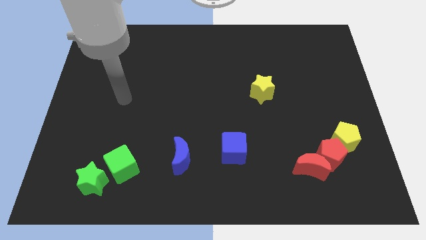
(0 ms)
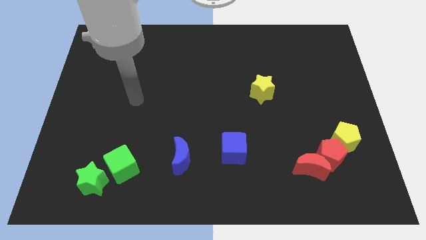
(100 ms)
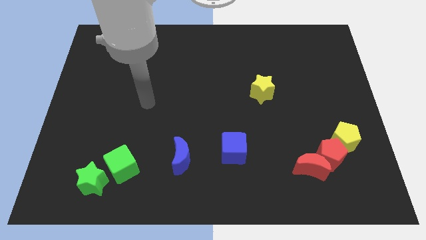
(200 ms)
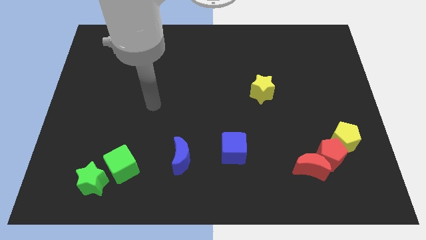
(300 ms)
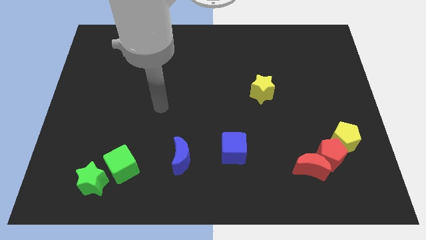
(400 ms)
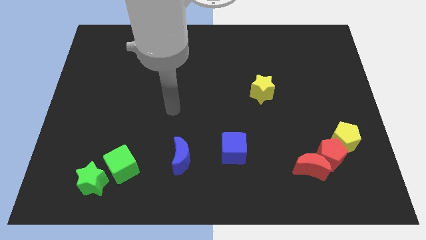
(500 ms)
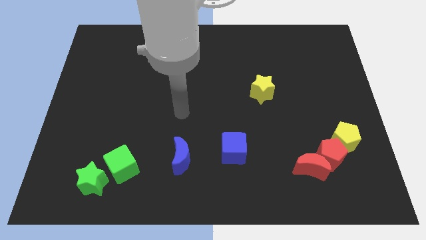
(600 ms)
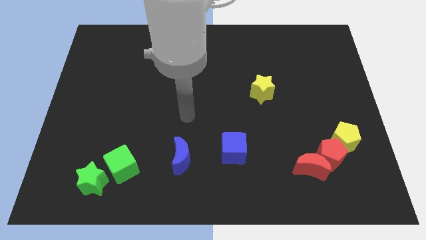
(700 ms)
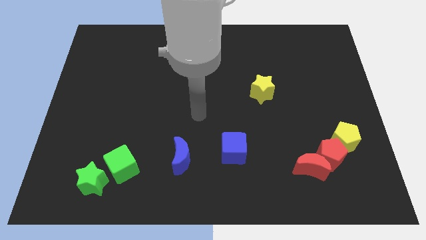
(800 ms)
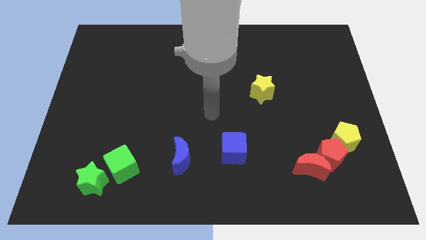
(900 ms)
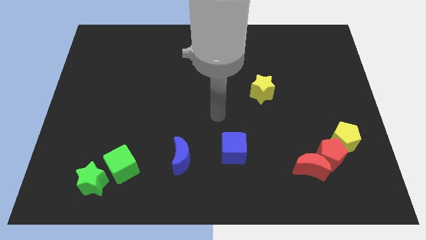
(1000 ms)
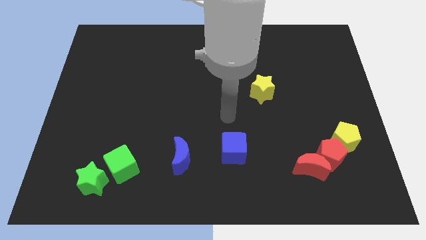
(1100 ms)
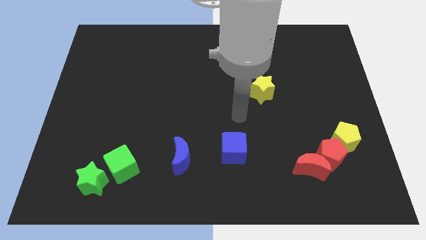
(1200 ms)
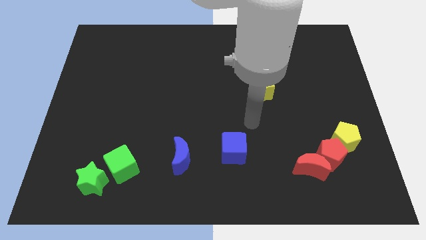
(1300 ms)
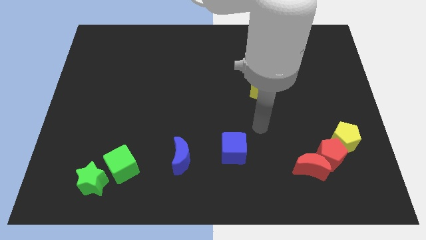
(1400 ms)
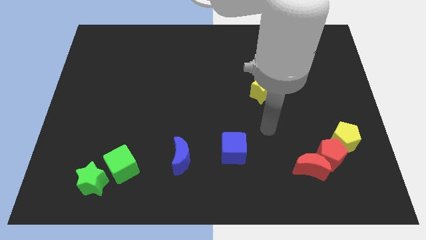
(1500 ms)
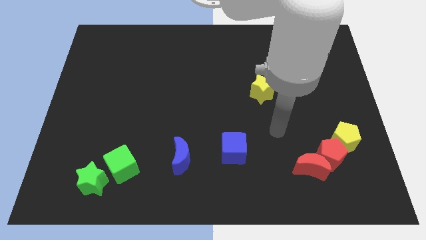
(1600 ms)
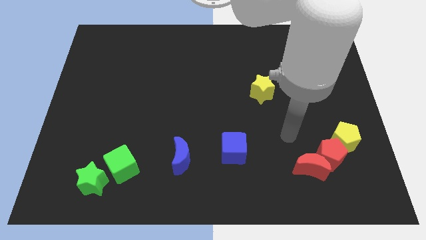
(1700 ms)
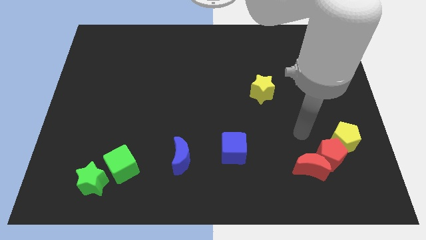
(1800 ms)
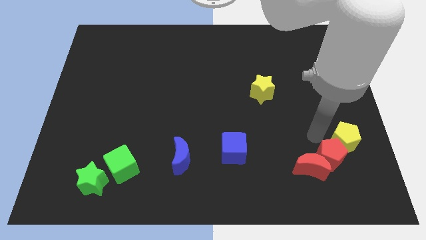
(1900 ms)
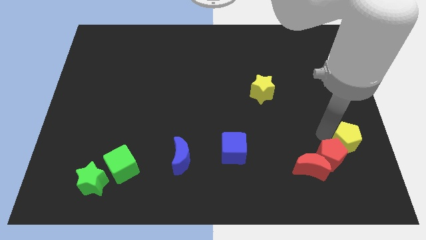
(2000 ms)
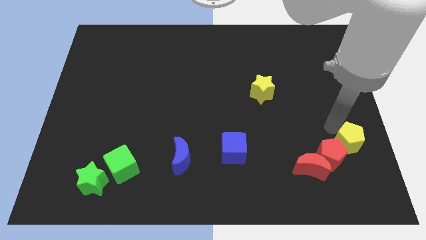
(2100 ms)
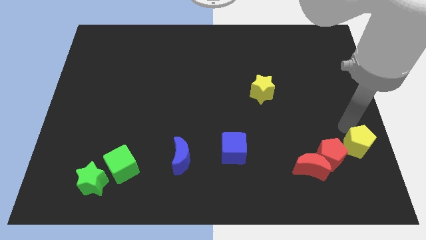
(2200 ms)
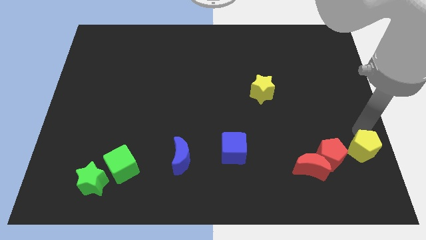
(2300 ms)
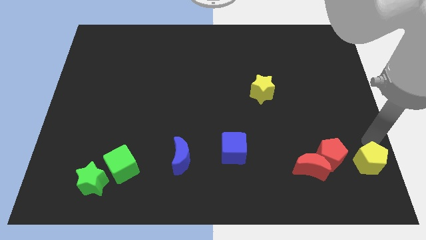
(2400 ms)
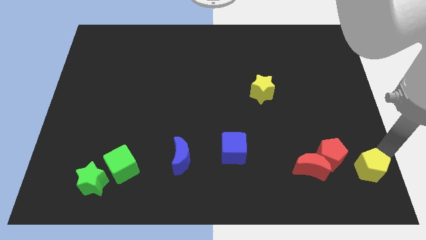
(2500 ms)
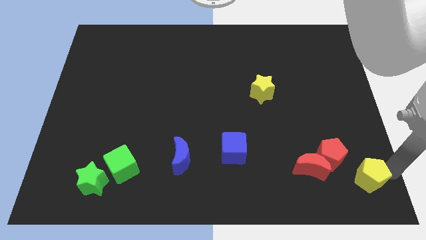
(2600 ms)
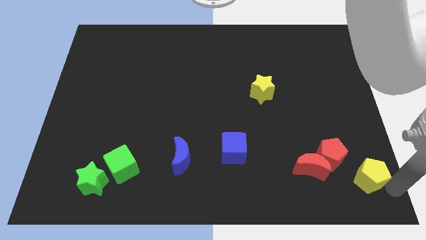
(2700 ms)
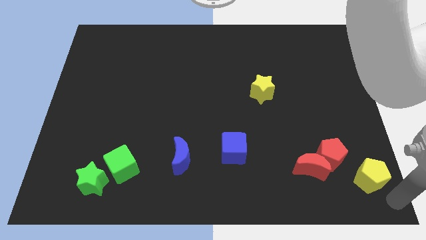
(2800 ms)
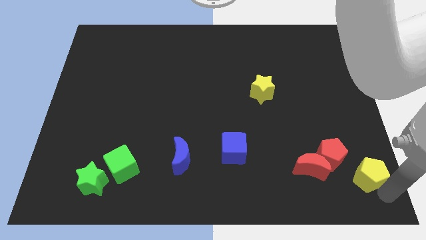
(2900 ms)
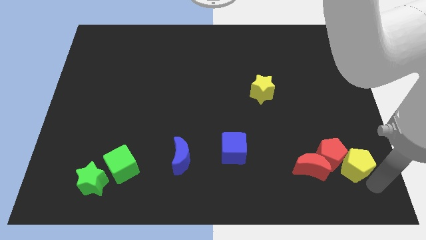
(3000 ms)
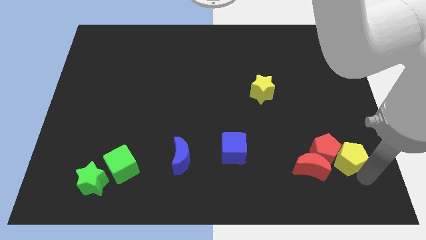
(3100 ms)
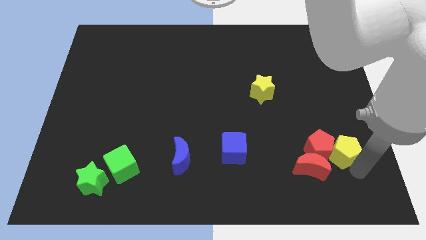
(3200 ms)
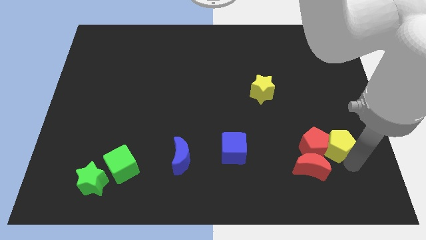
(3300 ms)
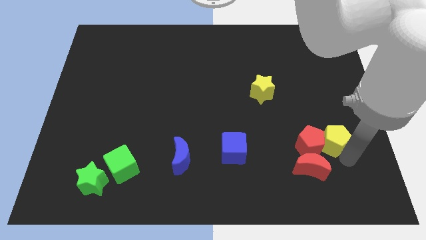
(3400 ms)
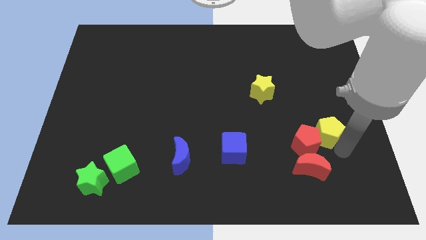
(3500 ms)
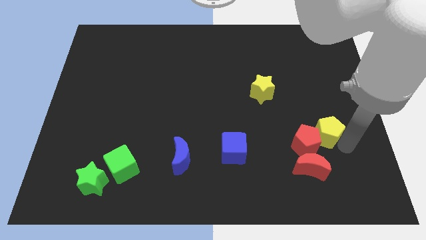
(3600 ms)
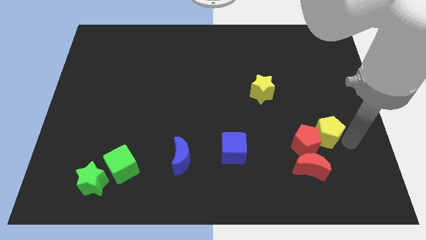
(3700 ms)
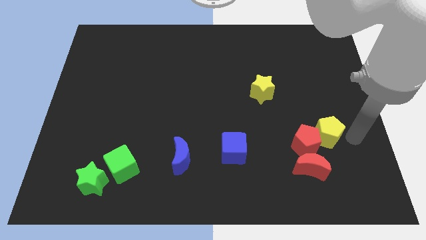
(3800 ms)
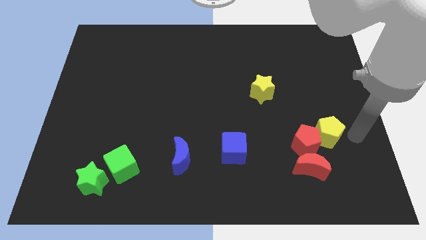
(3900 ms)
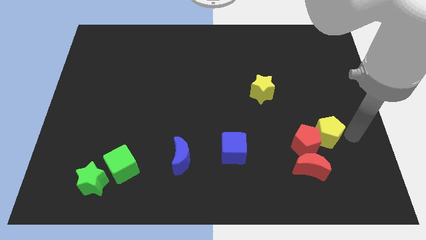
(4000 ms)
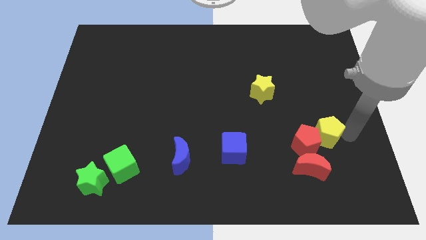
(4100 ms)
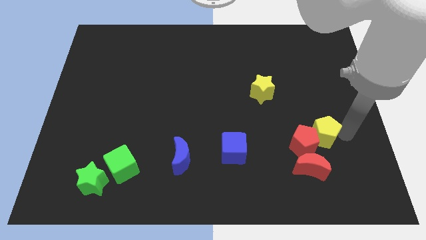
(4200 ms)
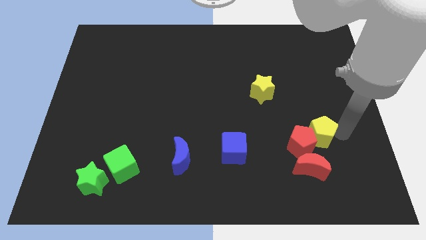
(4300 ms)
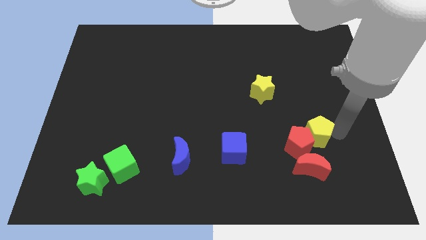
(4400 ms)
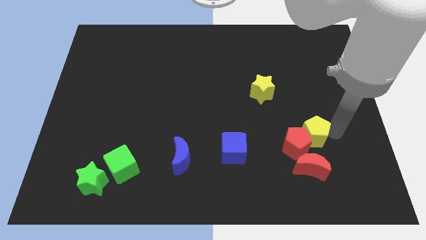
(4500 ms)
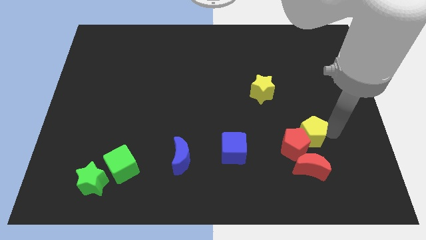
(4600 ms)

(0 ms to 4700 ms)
slide the yellow pentagon a little left

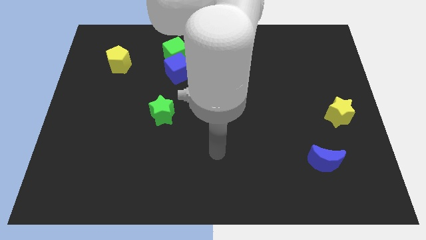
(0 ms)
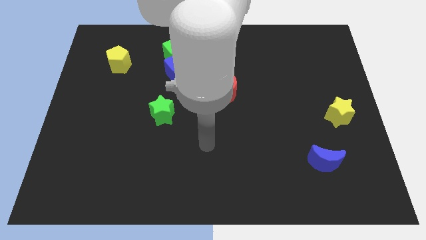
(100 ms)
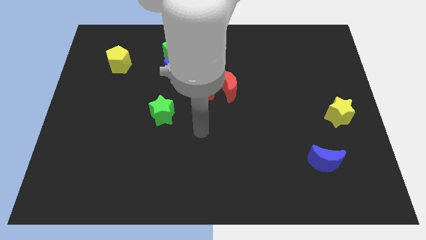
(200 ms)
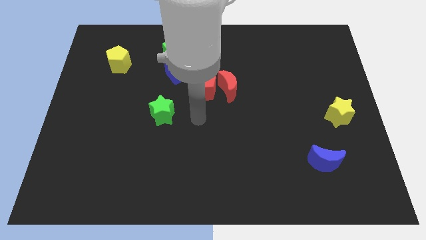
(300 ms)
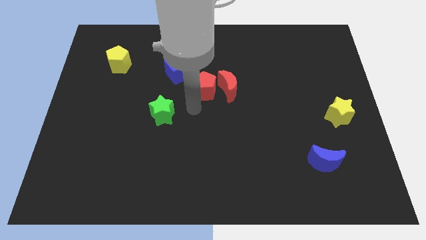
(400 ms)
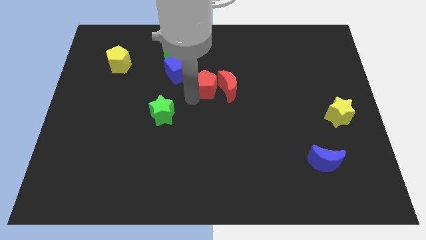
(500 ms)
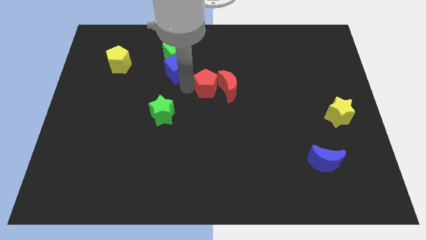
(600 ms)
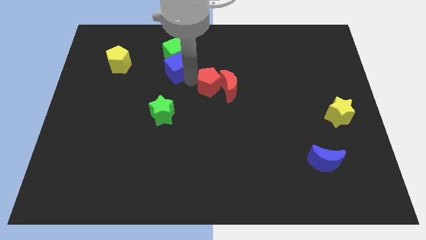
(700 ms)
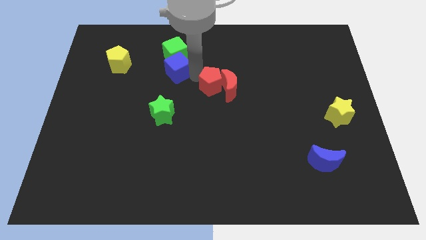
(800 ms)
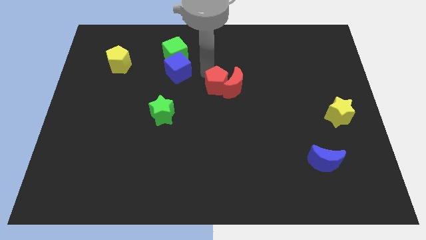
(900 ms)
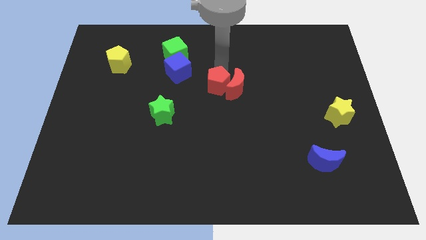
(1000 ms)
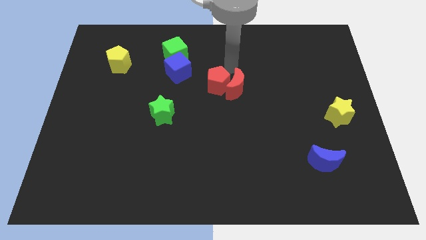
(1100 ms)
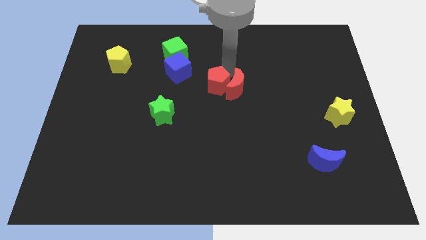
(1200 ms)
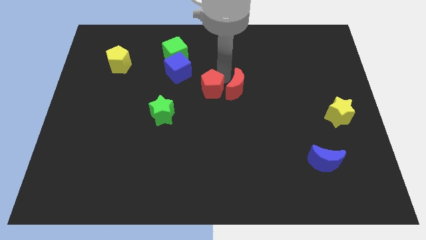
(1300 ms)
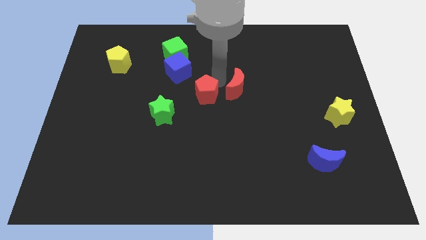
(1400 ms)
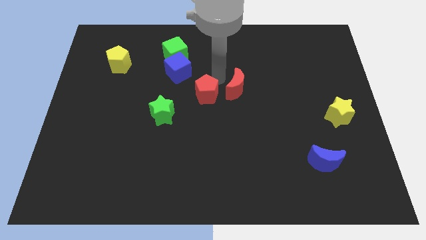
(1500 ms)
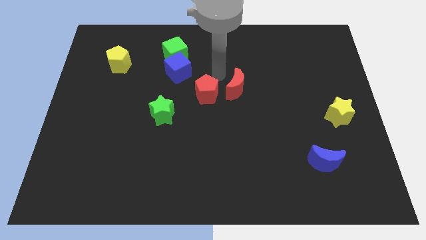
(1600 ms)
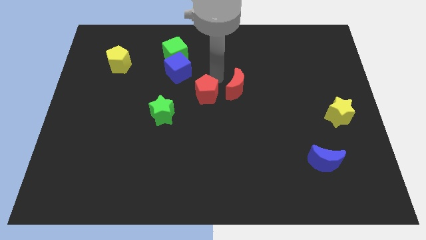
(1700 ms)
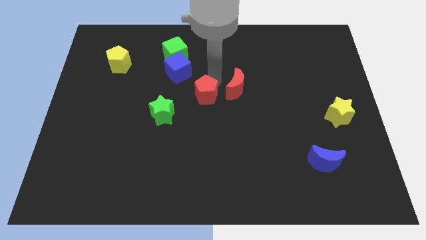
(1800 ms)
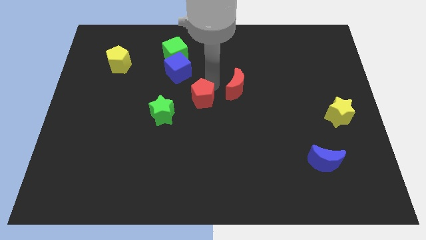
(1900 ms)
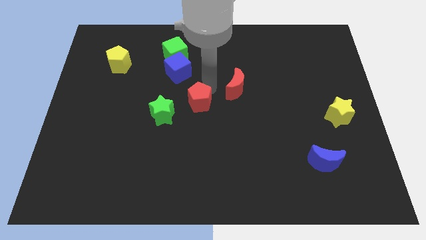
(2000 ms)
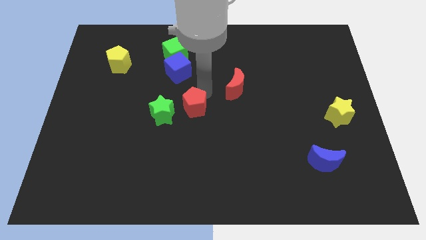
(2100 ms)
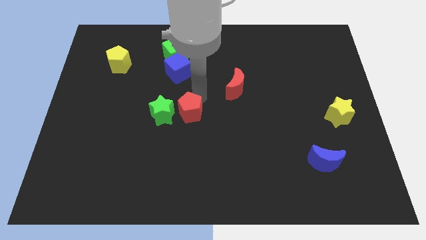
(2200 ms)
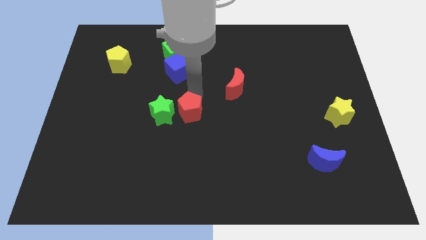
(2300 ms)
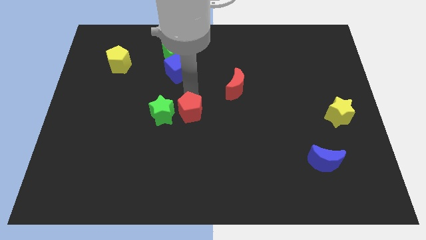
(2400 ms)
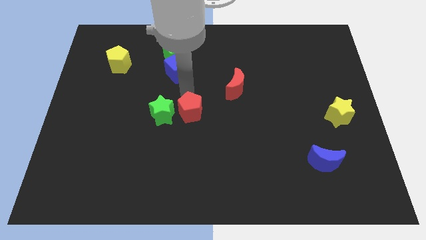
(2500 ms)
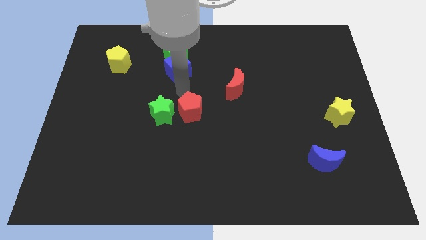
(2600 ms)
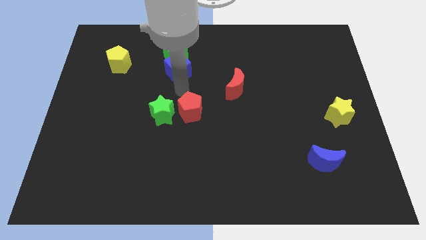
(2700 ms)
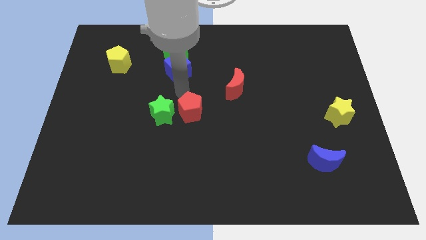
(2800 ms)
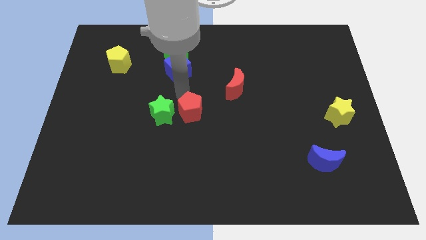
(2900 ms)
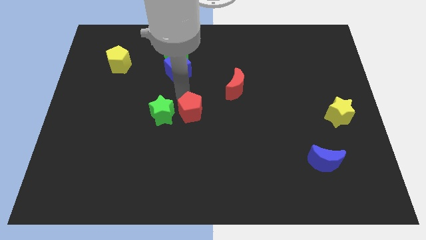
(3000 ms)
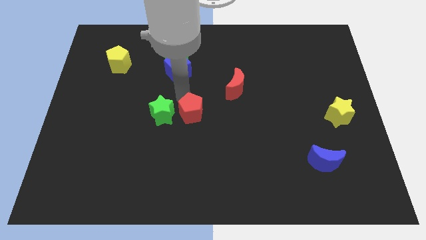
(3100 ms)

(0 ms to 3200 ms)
move the red pentagon a little bit downwards

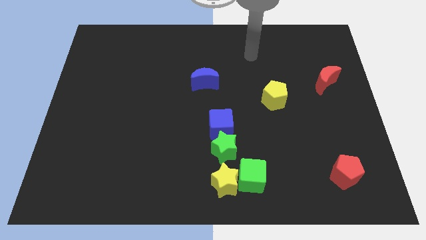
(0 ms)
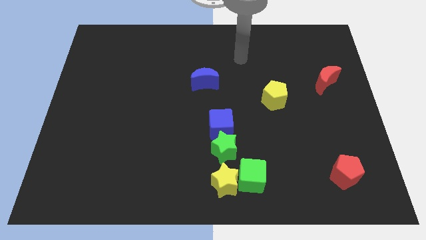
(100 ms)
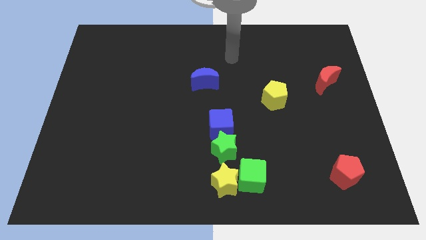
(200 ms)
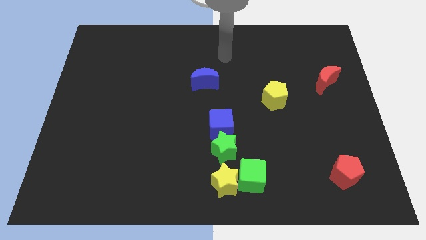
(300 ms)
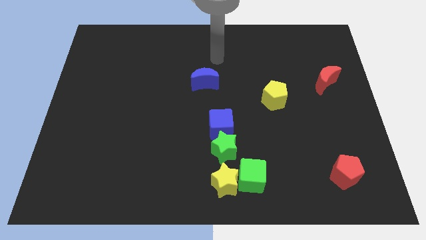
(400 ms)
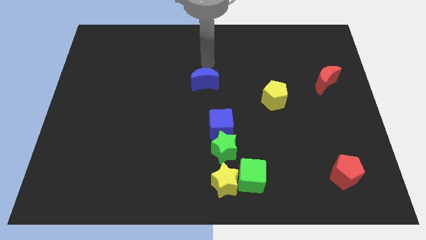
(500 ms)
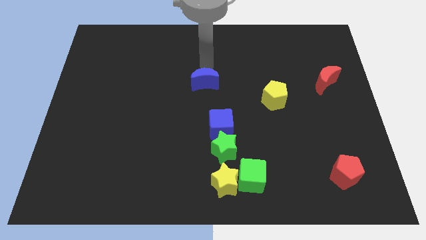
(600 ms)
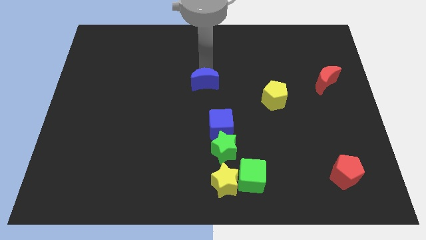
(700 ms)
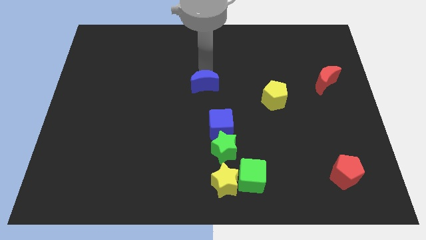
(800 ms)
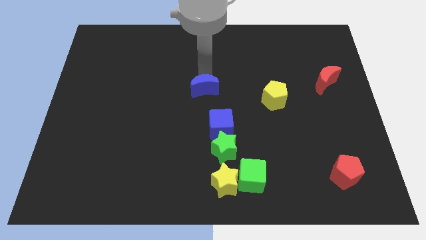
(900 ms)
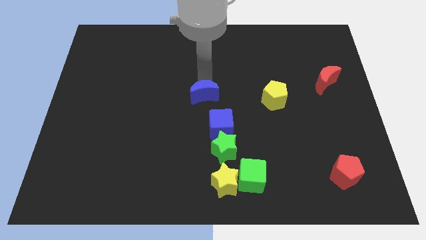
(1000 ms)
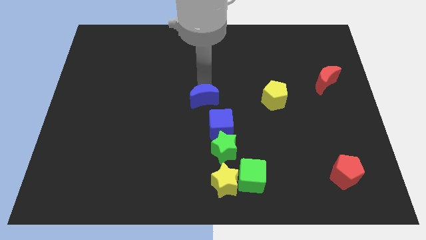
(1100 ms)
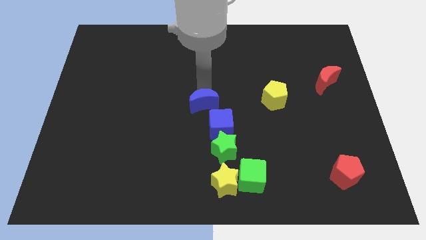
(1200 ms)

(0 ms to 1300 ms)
slide the blue moon a little bit down
